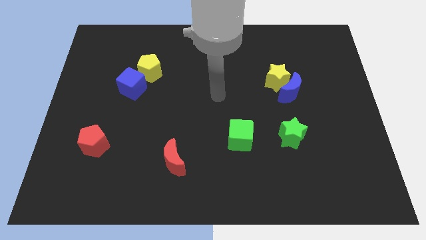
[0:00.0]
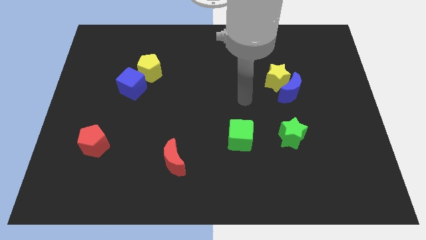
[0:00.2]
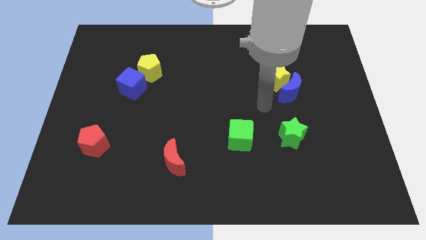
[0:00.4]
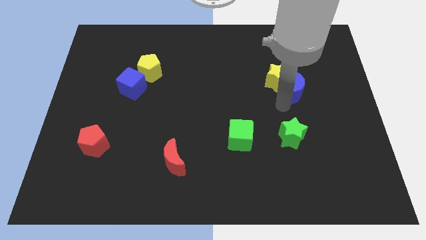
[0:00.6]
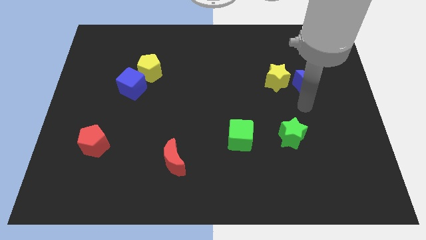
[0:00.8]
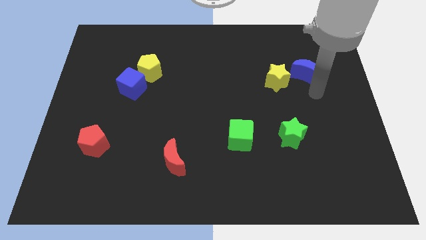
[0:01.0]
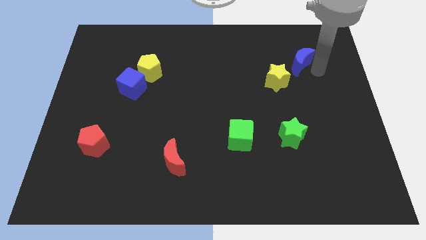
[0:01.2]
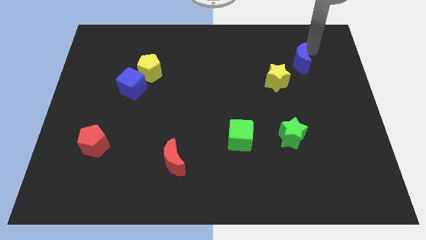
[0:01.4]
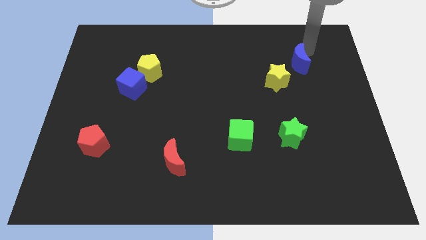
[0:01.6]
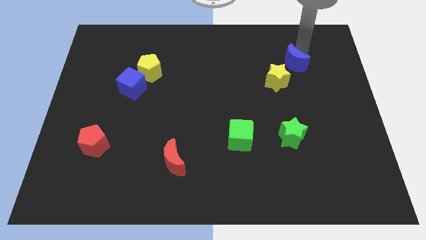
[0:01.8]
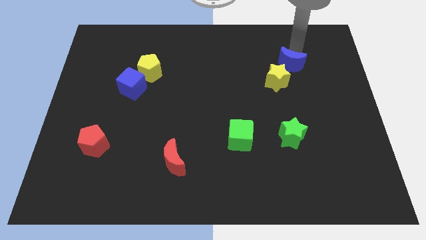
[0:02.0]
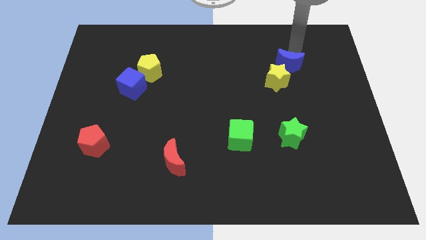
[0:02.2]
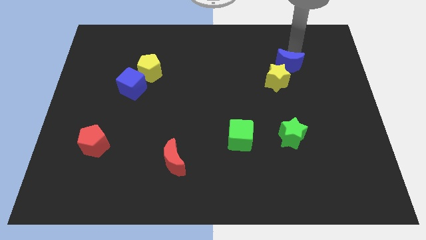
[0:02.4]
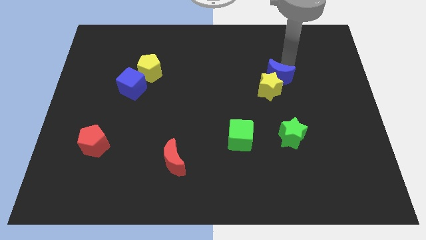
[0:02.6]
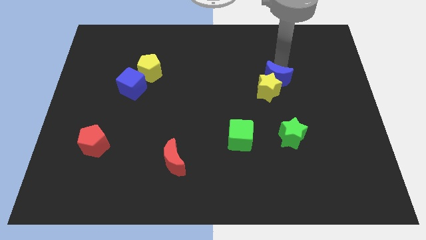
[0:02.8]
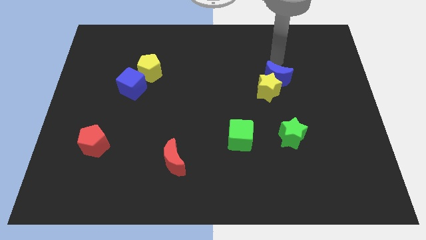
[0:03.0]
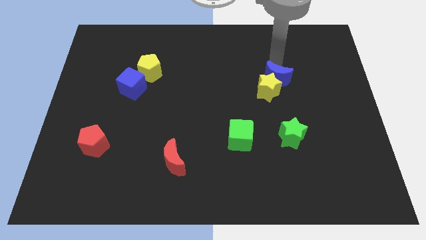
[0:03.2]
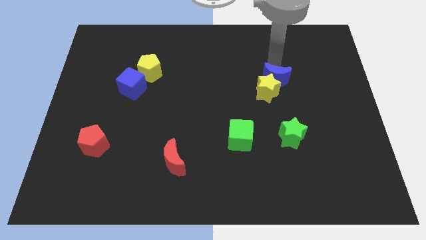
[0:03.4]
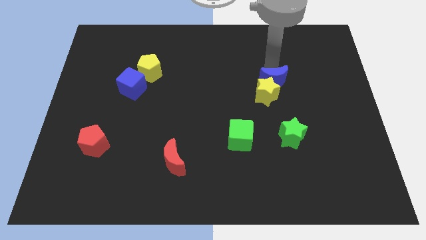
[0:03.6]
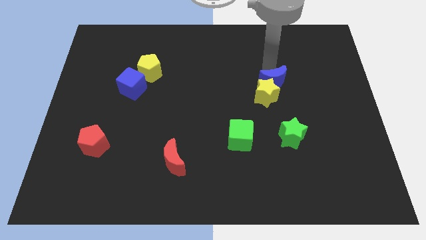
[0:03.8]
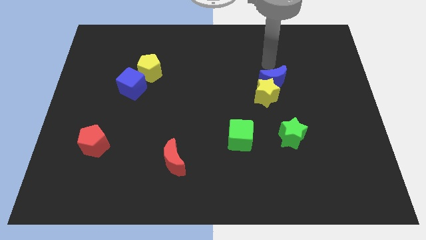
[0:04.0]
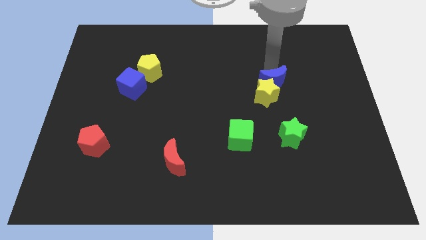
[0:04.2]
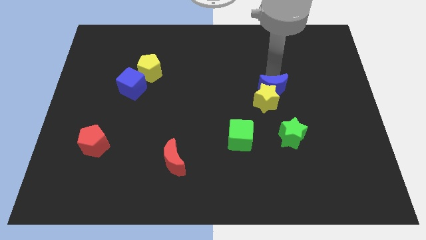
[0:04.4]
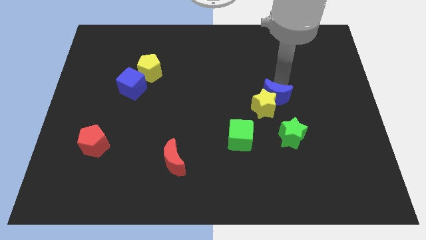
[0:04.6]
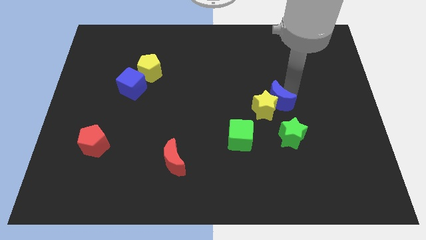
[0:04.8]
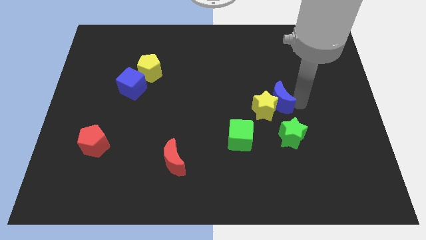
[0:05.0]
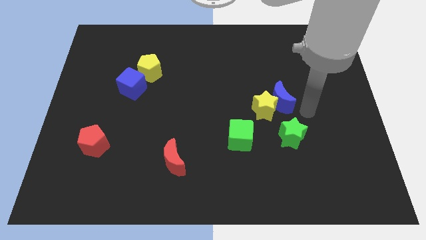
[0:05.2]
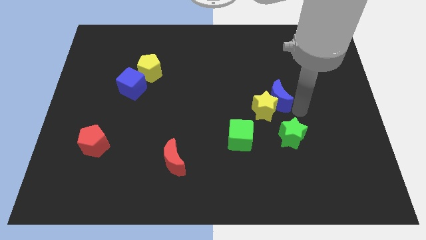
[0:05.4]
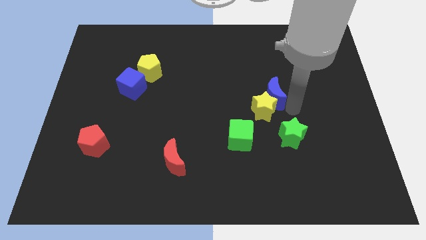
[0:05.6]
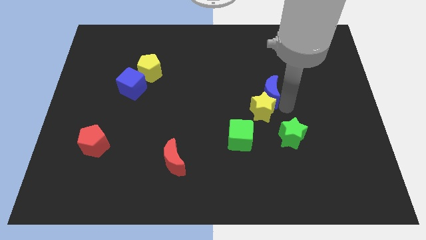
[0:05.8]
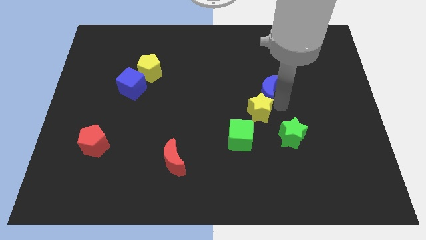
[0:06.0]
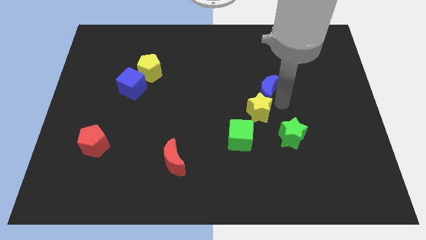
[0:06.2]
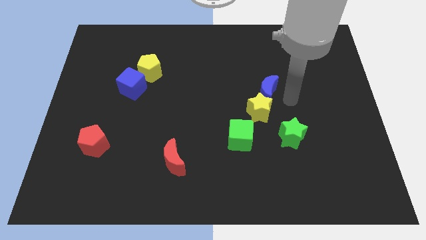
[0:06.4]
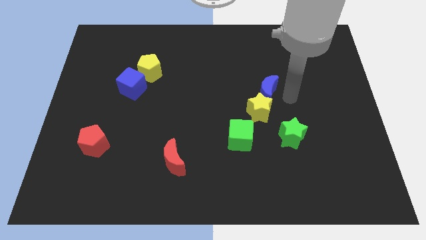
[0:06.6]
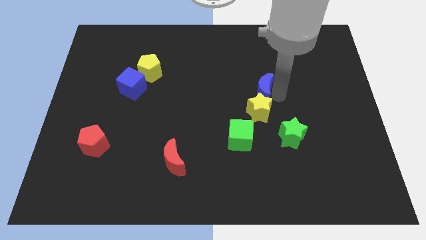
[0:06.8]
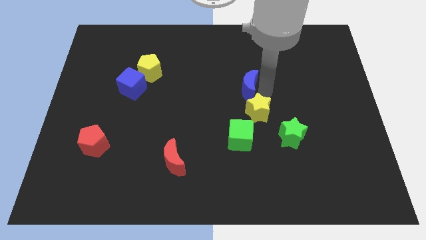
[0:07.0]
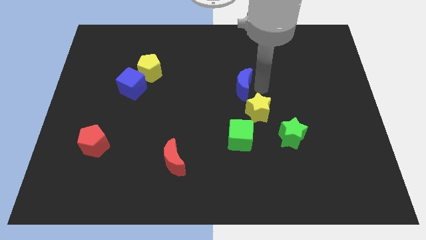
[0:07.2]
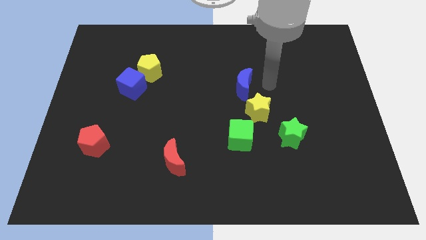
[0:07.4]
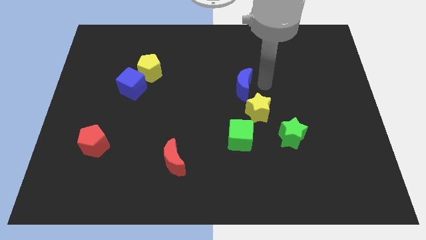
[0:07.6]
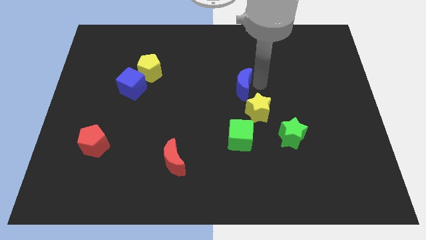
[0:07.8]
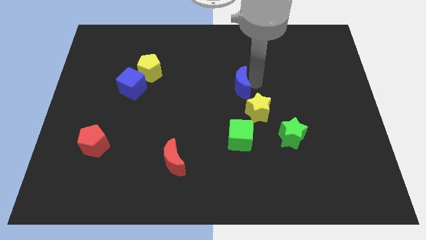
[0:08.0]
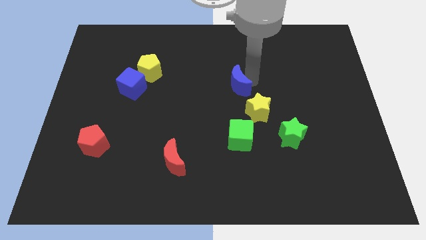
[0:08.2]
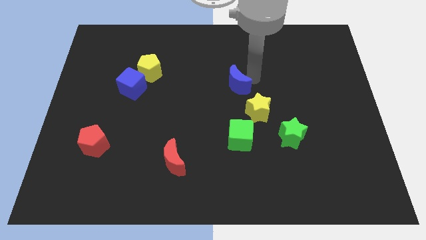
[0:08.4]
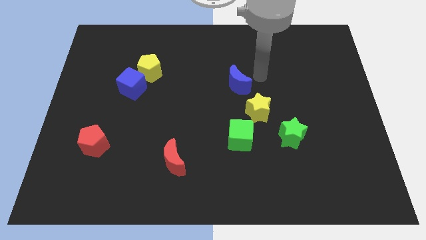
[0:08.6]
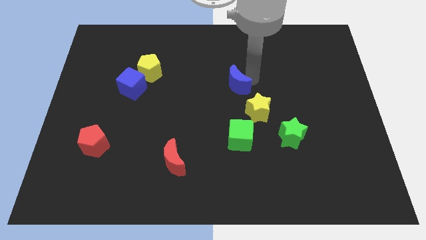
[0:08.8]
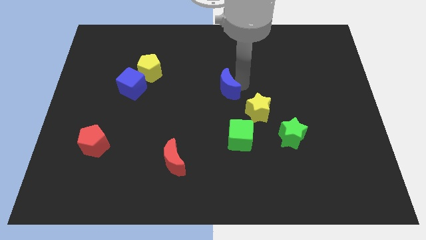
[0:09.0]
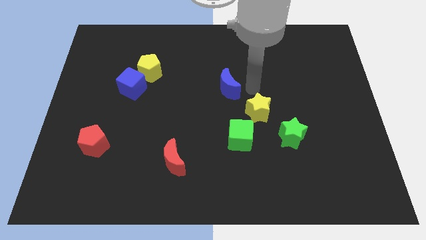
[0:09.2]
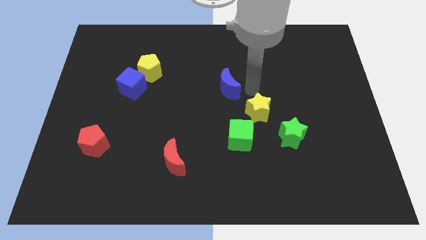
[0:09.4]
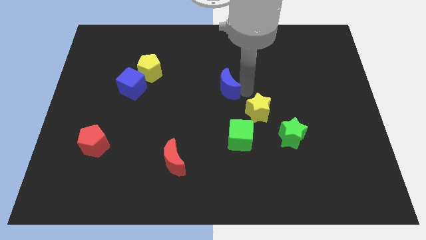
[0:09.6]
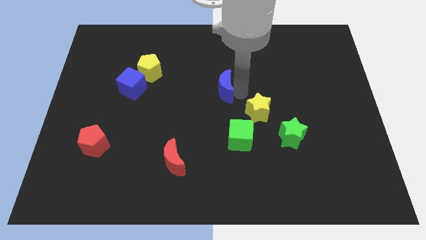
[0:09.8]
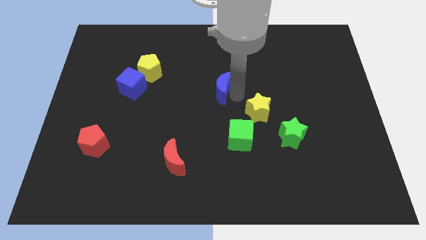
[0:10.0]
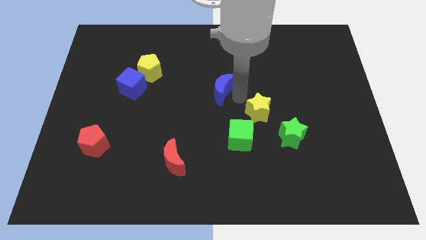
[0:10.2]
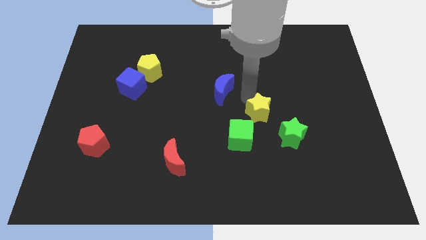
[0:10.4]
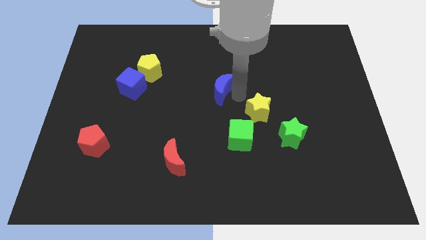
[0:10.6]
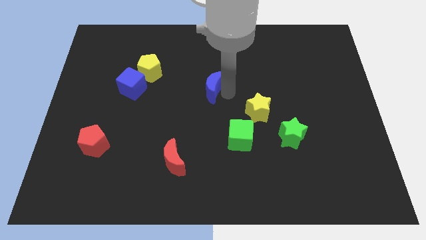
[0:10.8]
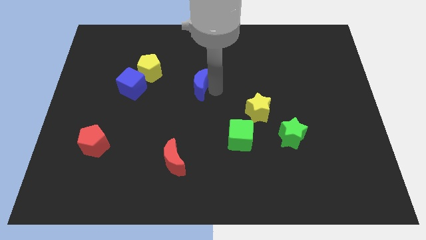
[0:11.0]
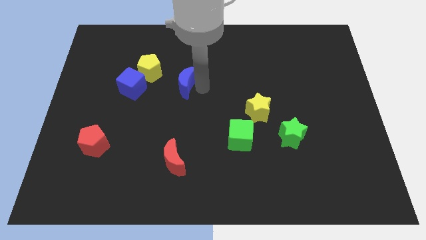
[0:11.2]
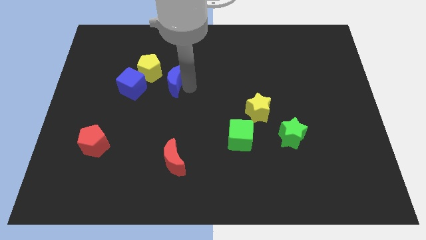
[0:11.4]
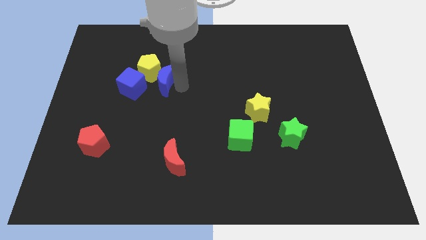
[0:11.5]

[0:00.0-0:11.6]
slide the blue moon next to the yellow pentagon

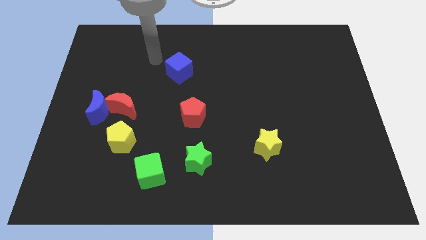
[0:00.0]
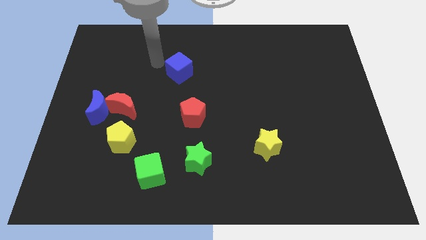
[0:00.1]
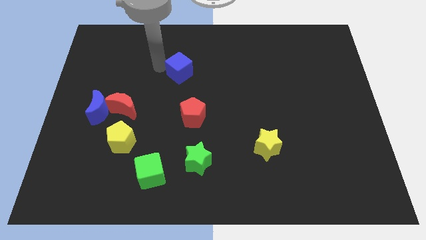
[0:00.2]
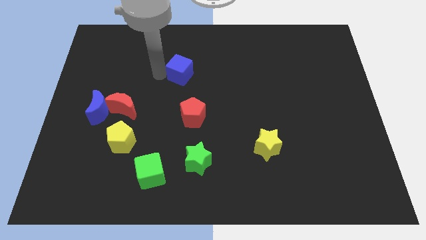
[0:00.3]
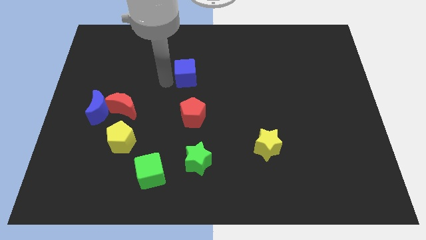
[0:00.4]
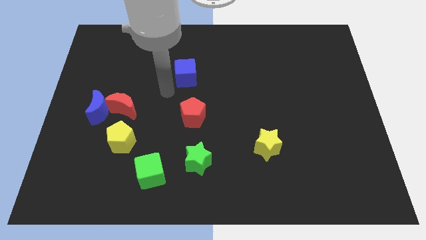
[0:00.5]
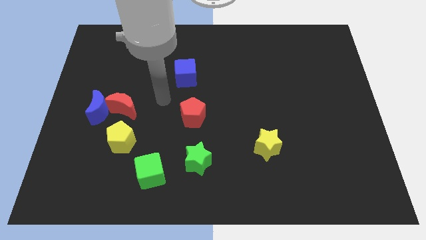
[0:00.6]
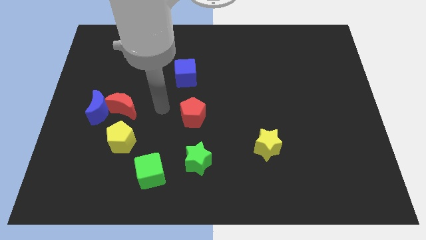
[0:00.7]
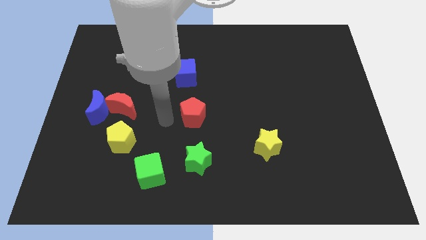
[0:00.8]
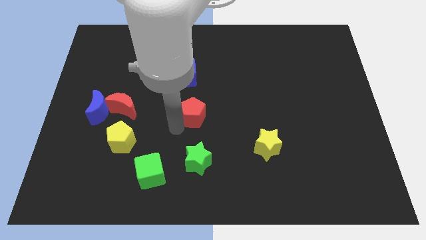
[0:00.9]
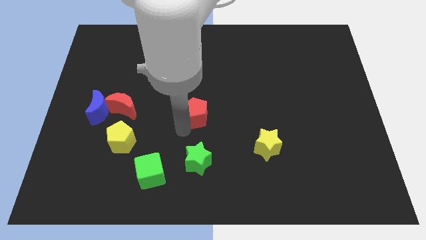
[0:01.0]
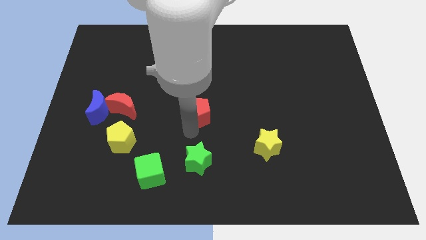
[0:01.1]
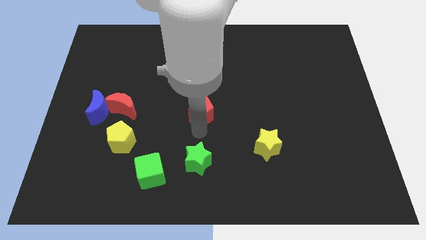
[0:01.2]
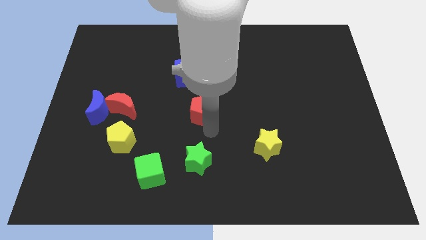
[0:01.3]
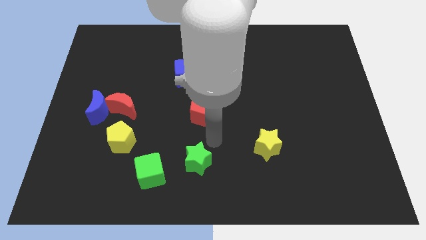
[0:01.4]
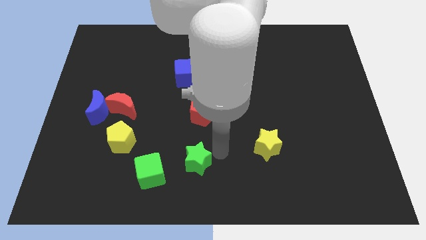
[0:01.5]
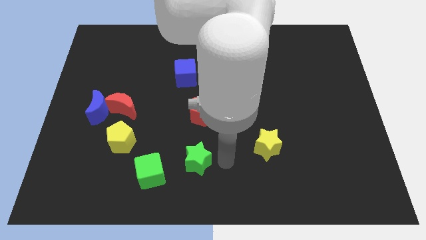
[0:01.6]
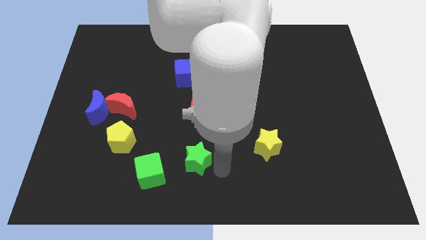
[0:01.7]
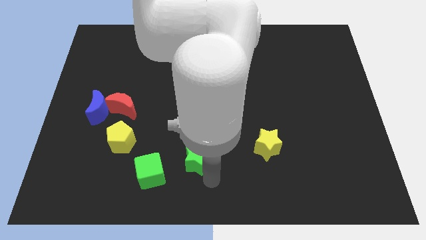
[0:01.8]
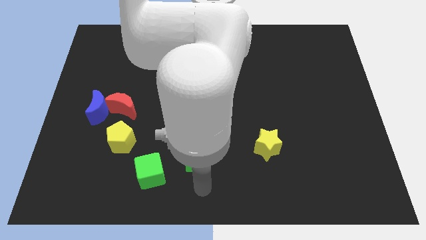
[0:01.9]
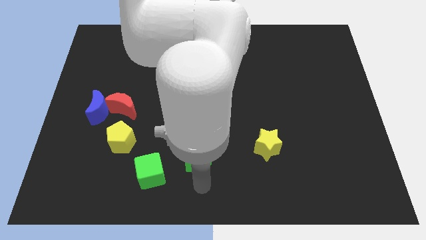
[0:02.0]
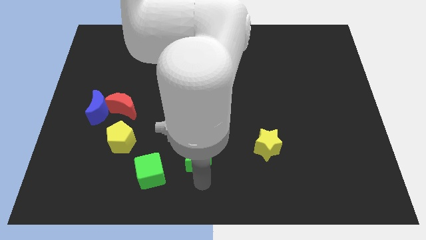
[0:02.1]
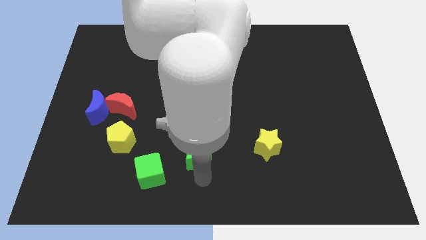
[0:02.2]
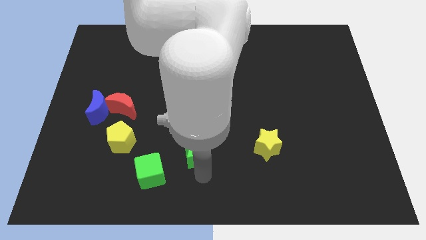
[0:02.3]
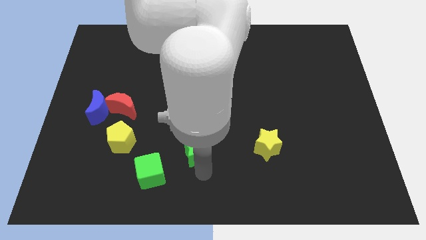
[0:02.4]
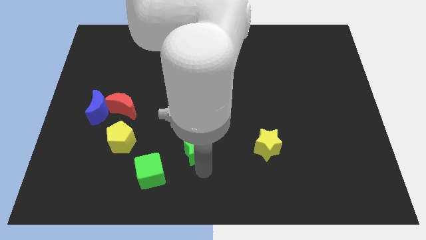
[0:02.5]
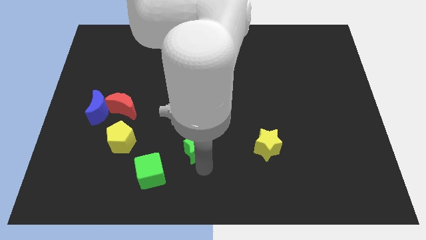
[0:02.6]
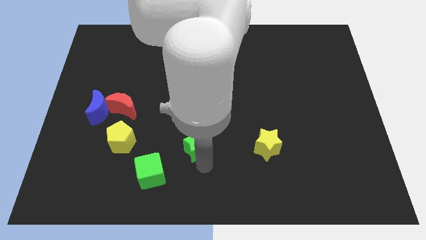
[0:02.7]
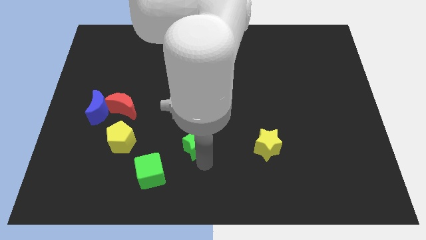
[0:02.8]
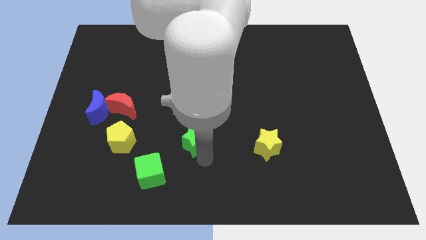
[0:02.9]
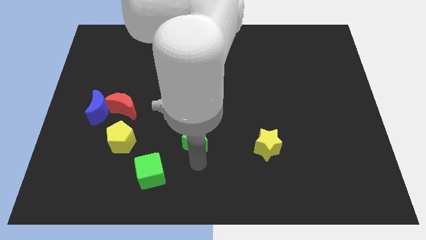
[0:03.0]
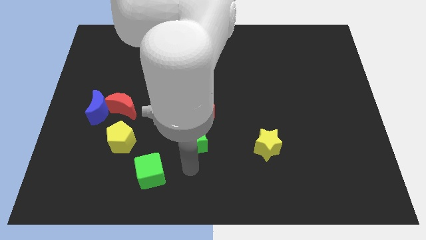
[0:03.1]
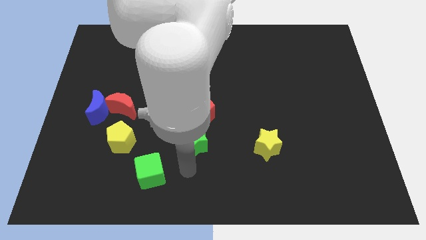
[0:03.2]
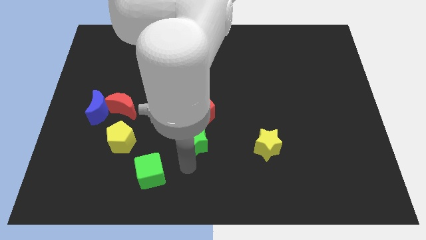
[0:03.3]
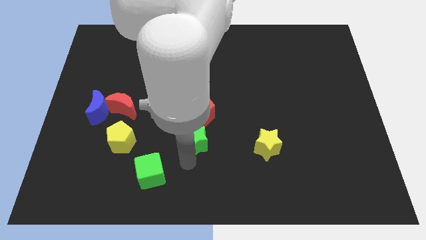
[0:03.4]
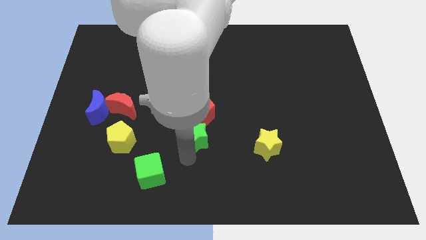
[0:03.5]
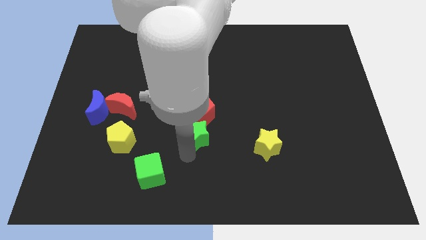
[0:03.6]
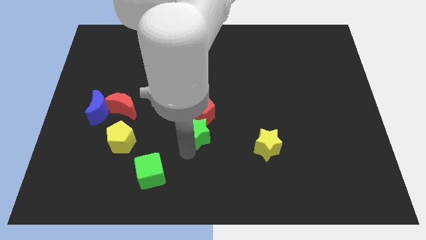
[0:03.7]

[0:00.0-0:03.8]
slide the green star close to the red pentagon
